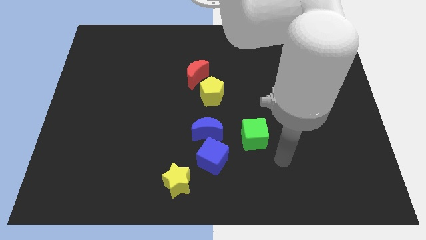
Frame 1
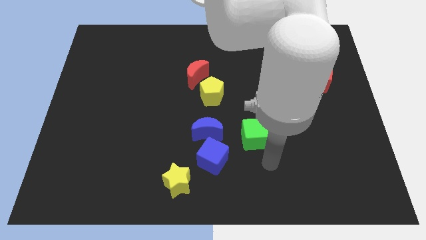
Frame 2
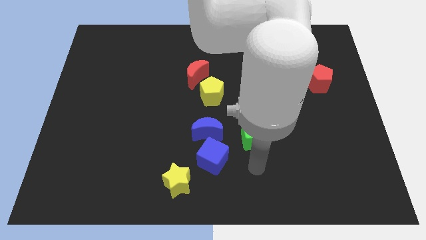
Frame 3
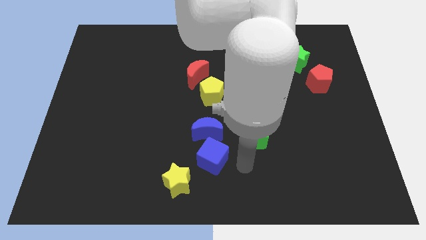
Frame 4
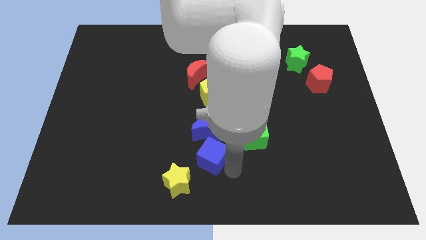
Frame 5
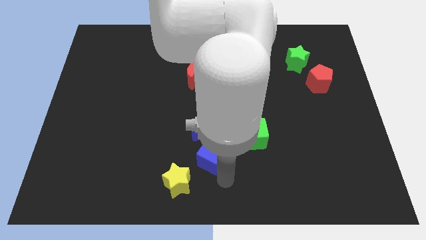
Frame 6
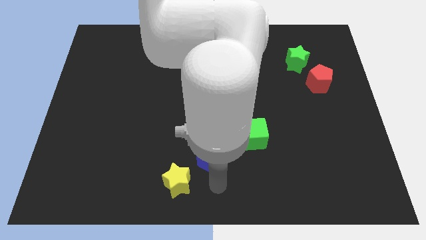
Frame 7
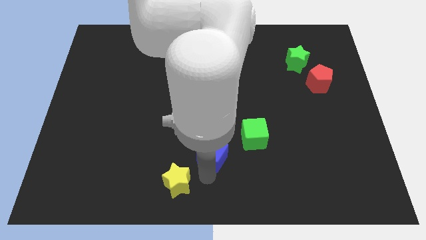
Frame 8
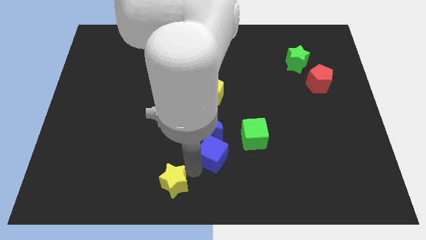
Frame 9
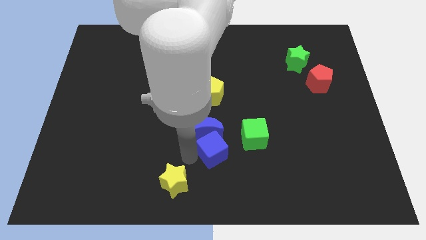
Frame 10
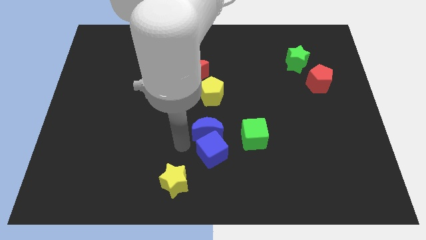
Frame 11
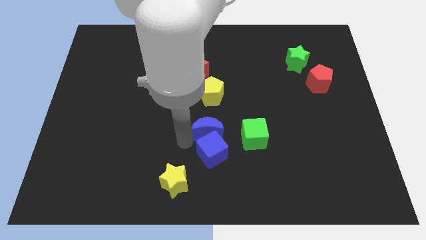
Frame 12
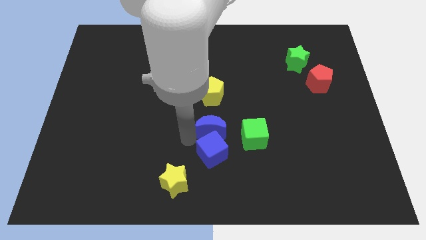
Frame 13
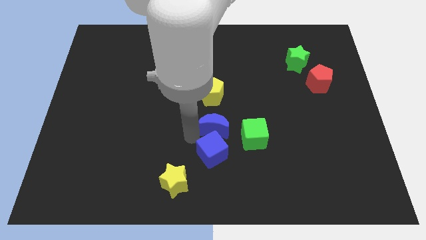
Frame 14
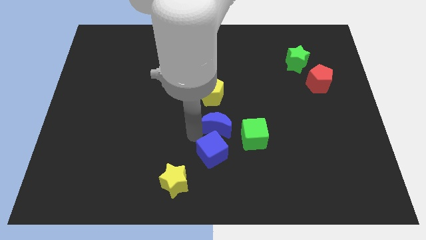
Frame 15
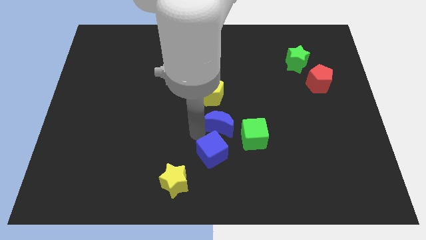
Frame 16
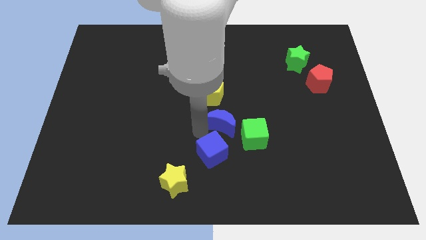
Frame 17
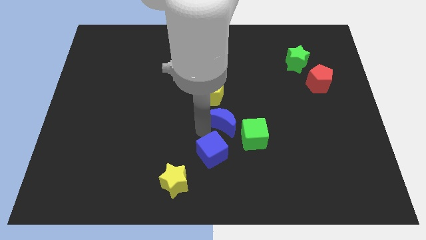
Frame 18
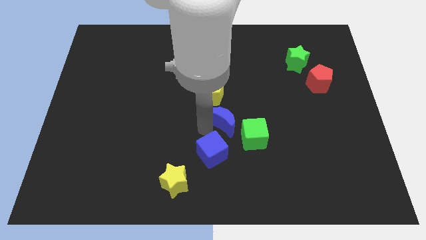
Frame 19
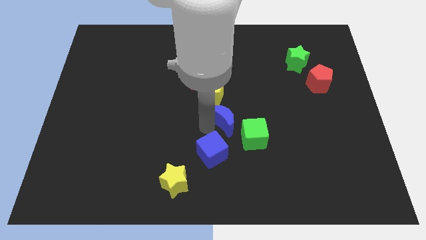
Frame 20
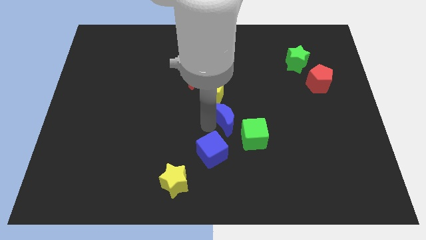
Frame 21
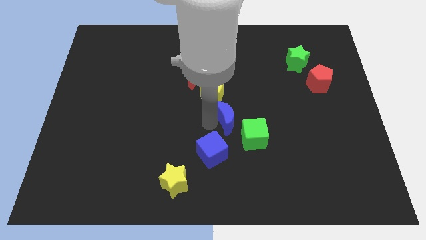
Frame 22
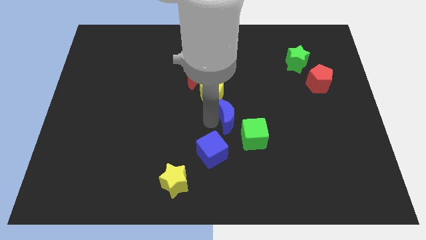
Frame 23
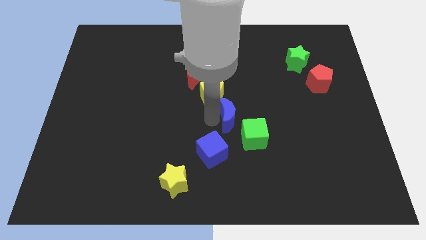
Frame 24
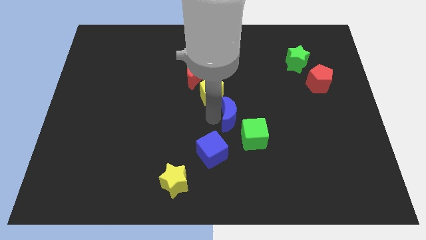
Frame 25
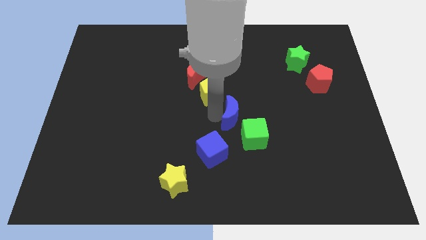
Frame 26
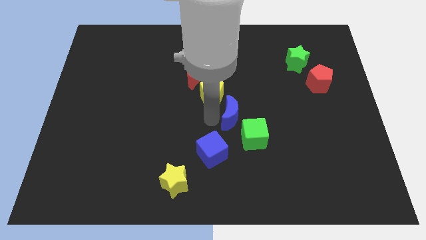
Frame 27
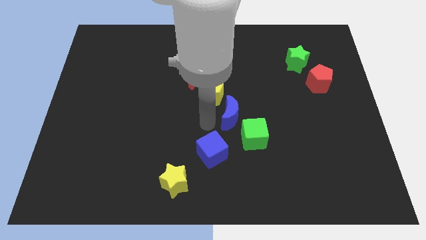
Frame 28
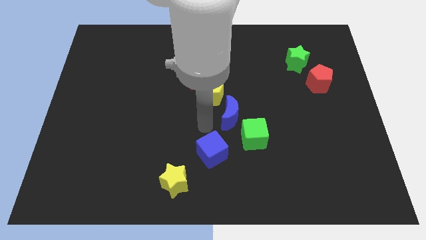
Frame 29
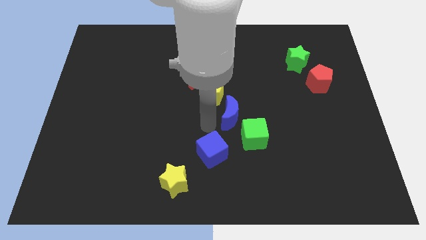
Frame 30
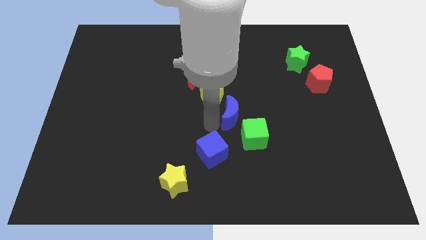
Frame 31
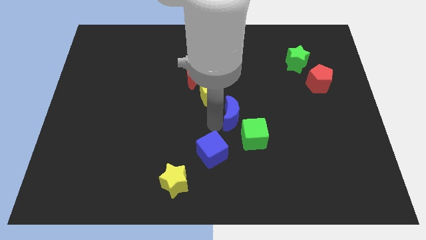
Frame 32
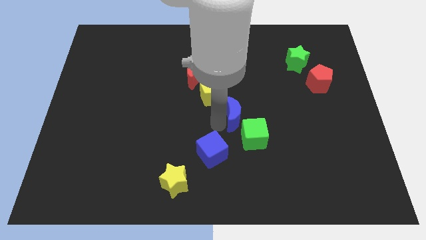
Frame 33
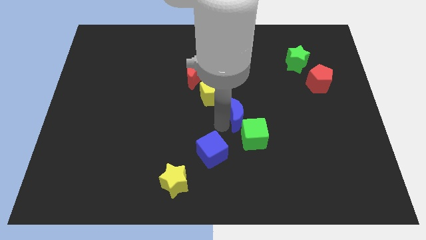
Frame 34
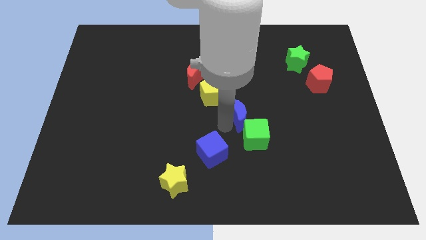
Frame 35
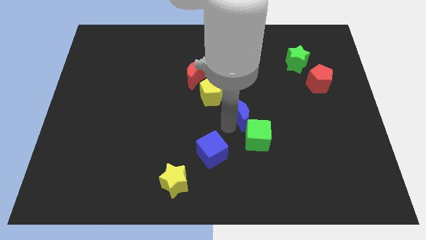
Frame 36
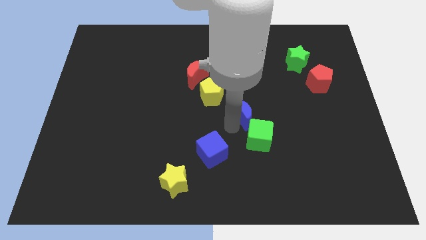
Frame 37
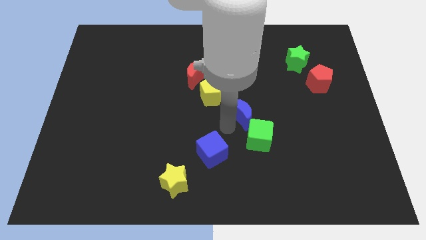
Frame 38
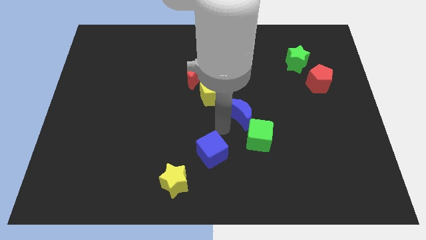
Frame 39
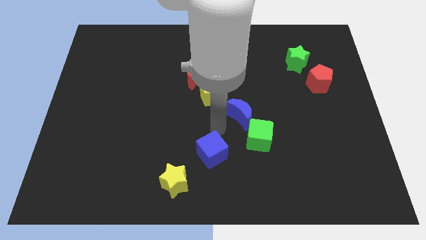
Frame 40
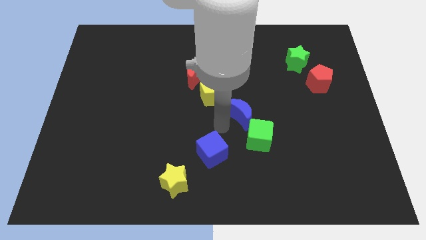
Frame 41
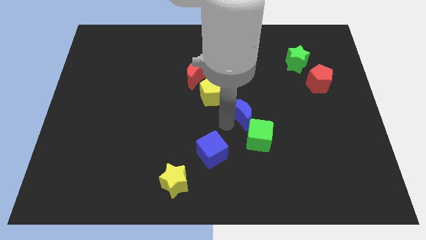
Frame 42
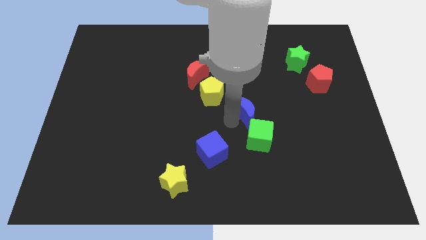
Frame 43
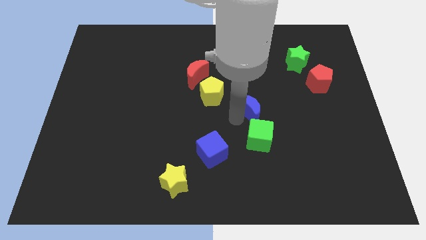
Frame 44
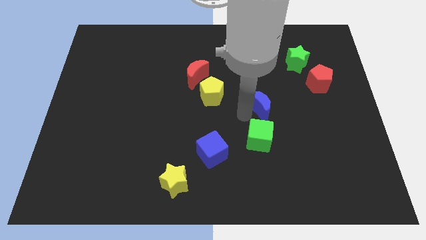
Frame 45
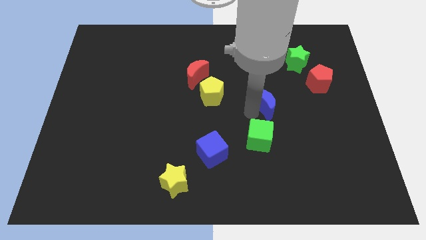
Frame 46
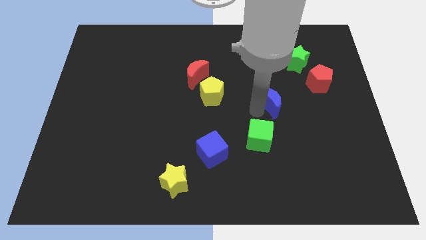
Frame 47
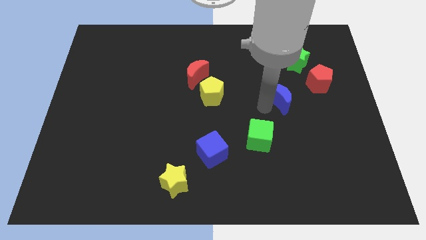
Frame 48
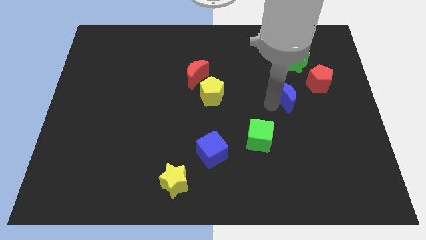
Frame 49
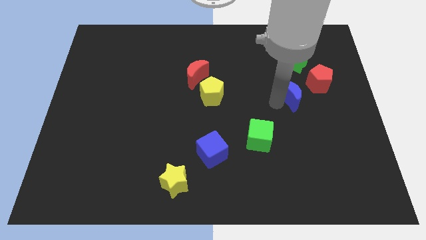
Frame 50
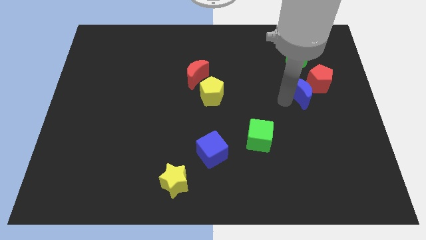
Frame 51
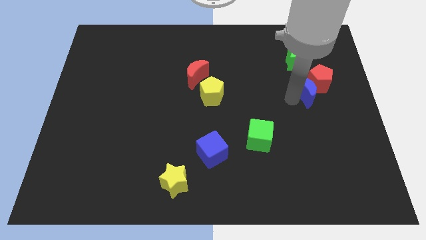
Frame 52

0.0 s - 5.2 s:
move the blue moon close to the red pentagon

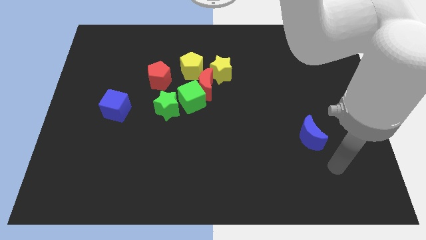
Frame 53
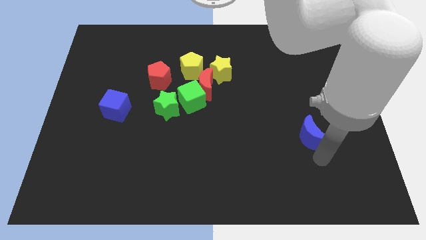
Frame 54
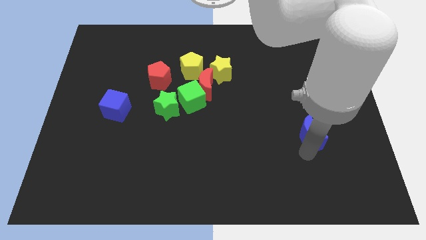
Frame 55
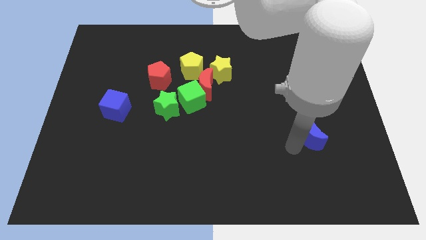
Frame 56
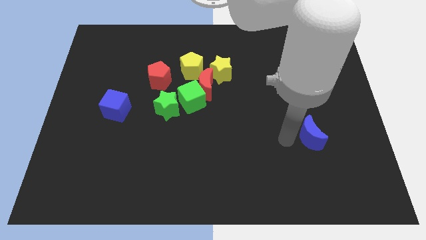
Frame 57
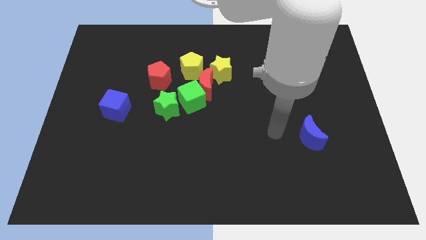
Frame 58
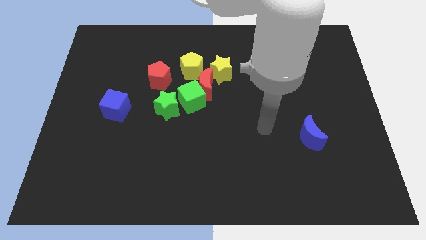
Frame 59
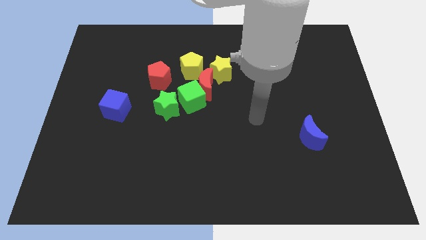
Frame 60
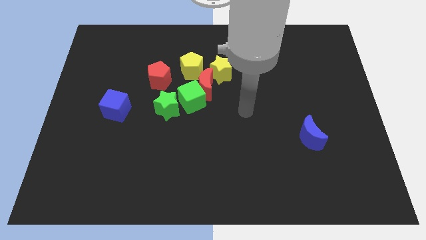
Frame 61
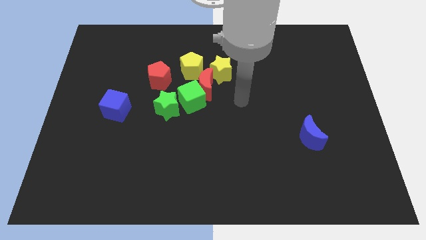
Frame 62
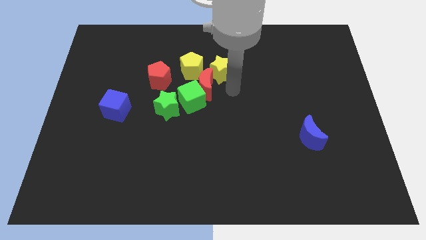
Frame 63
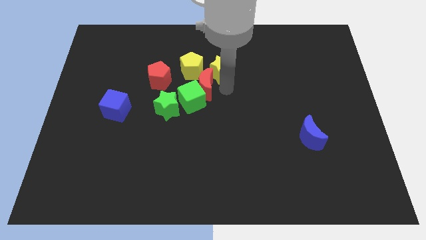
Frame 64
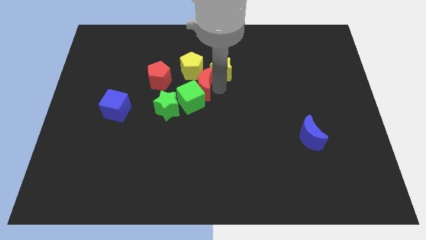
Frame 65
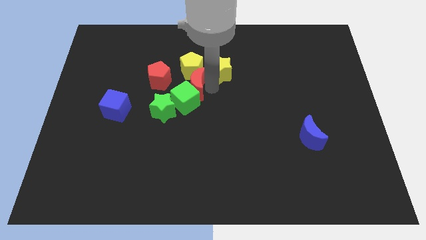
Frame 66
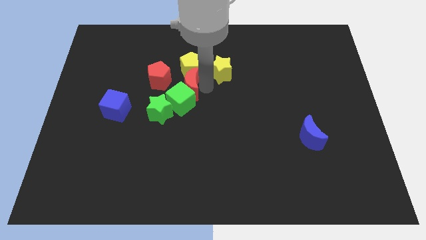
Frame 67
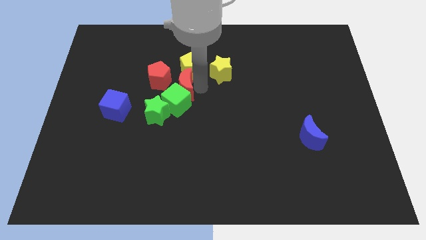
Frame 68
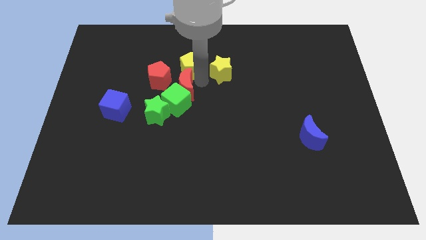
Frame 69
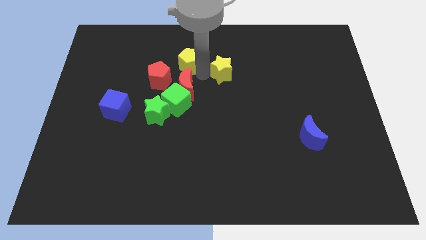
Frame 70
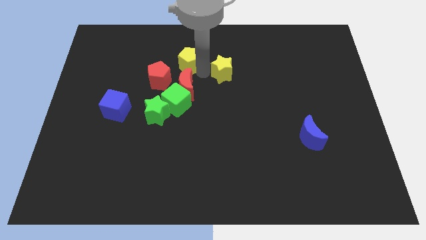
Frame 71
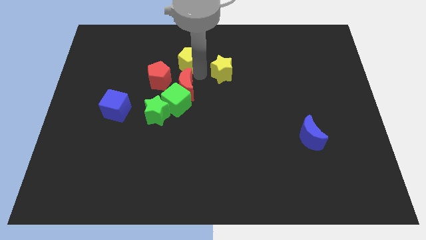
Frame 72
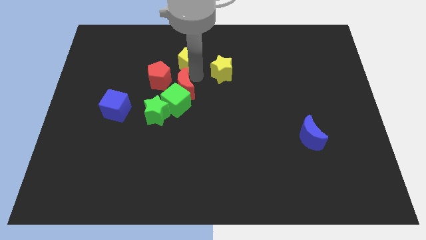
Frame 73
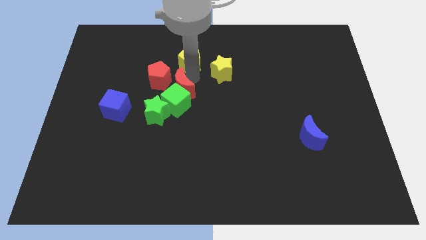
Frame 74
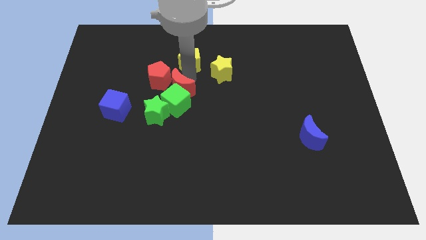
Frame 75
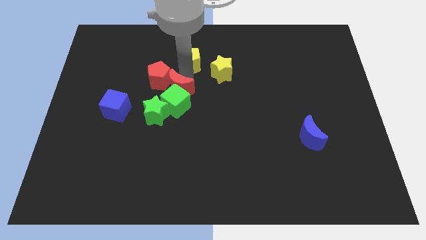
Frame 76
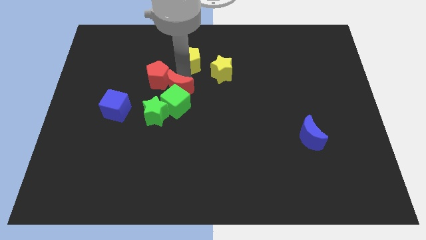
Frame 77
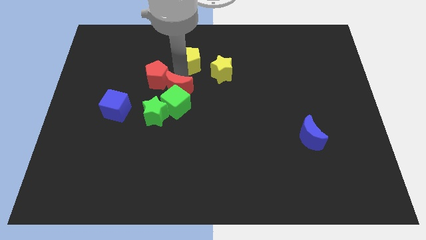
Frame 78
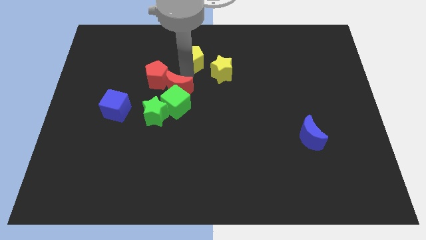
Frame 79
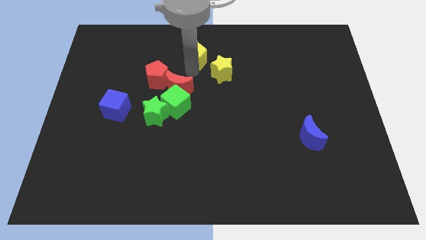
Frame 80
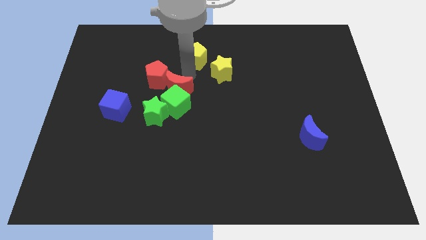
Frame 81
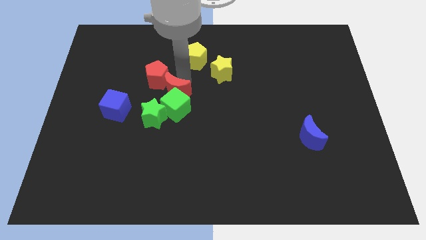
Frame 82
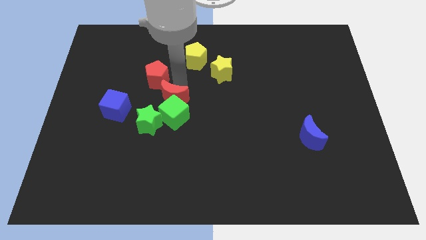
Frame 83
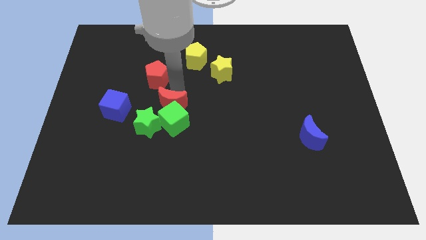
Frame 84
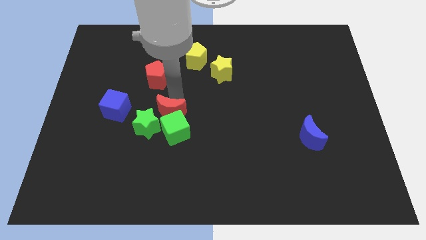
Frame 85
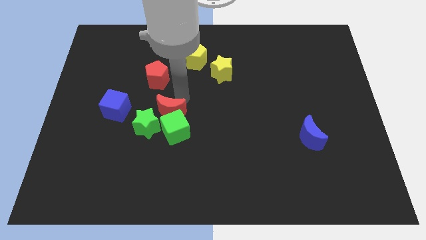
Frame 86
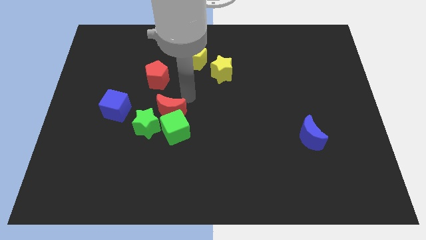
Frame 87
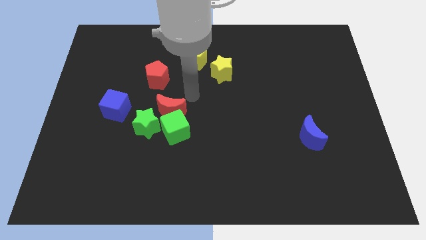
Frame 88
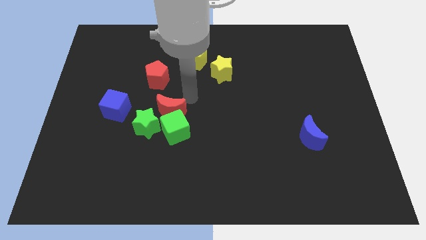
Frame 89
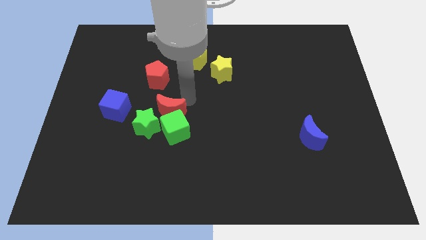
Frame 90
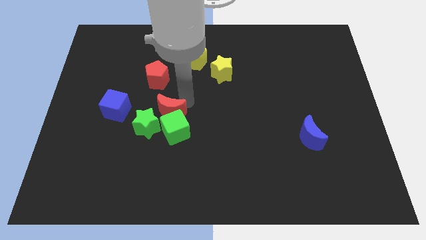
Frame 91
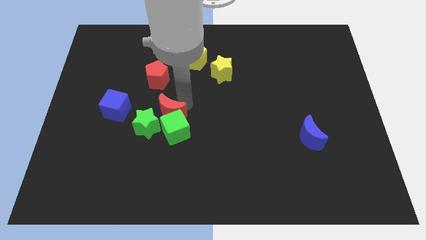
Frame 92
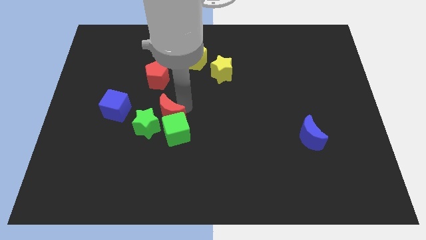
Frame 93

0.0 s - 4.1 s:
put the red moon towards the green star
